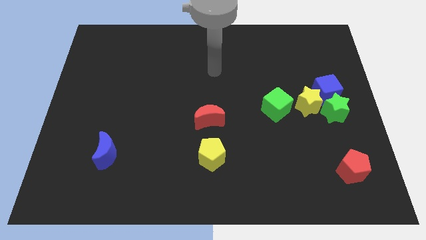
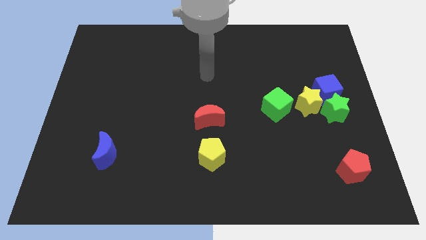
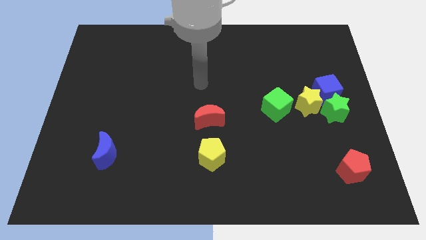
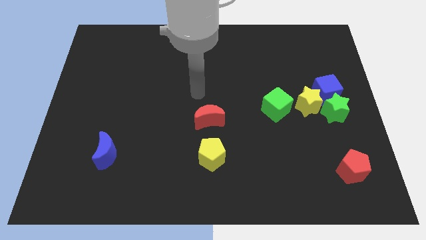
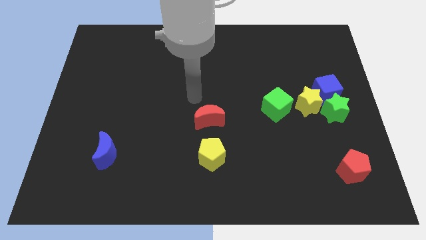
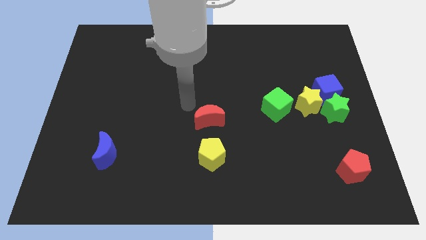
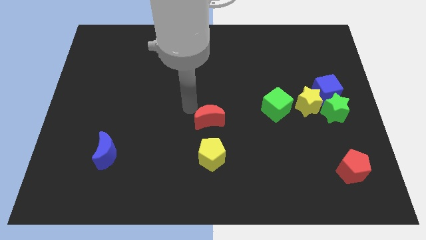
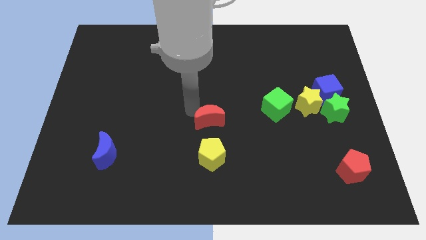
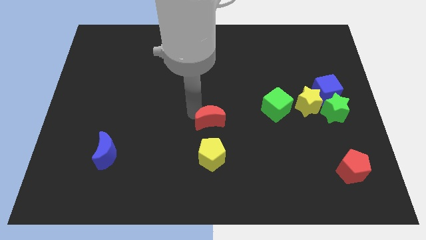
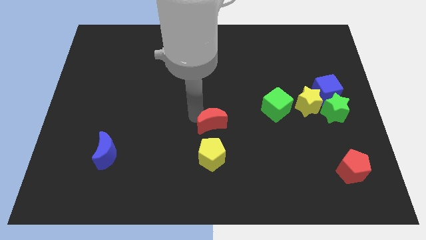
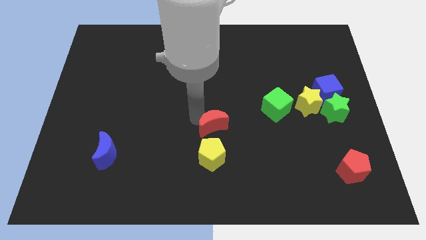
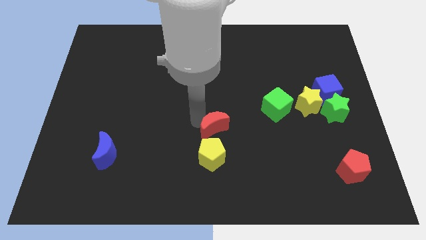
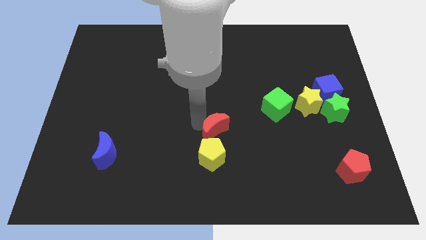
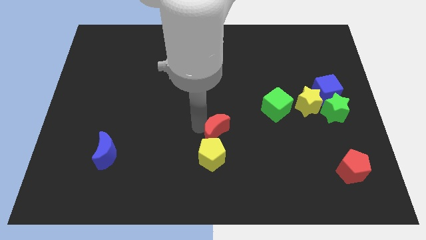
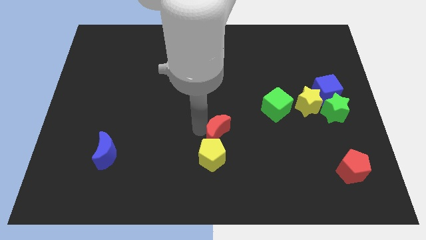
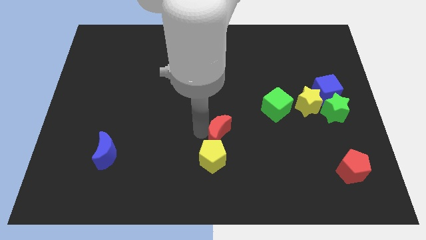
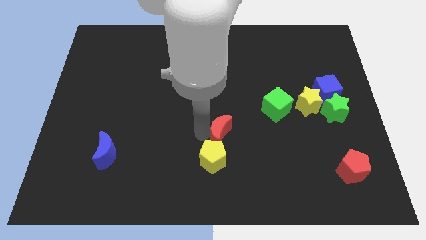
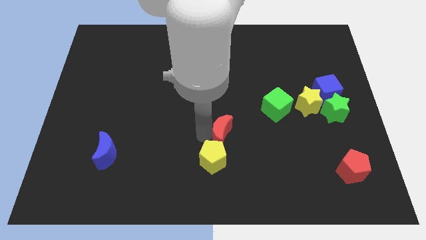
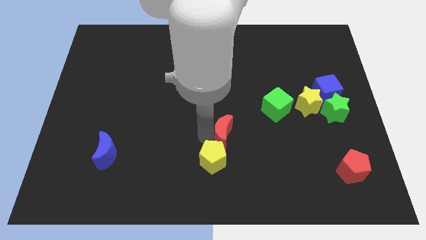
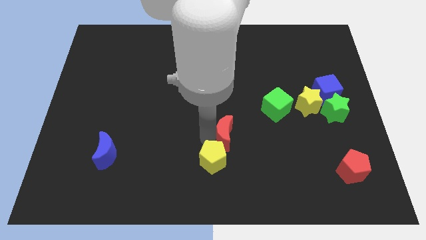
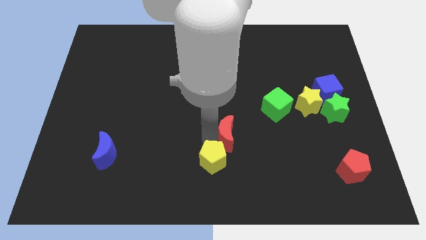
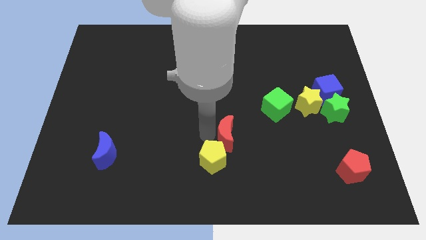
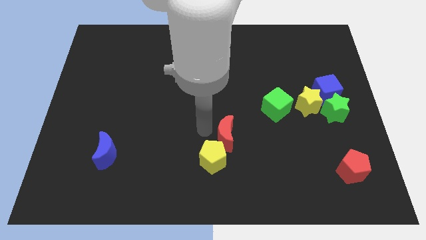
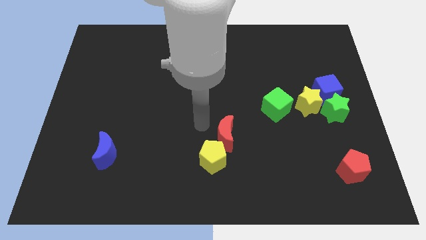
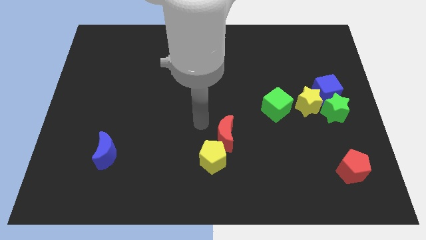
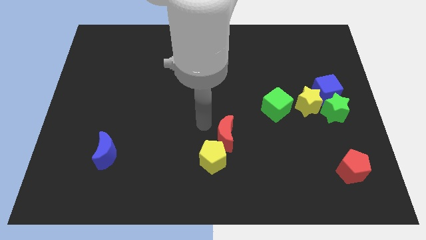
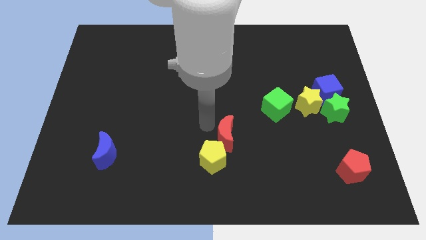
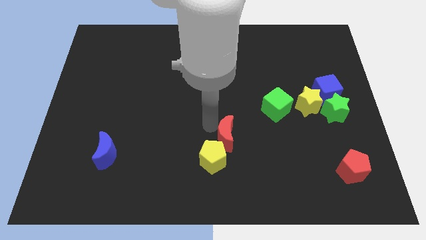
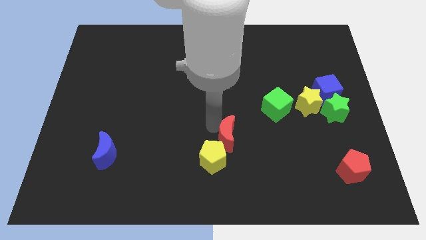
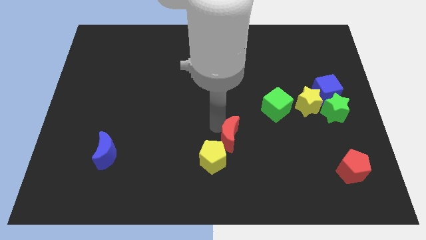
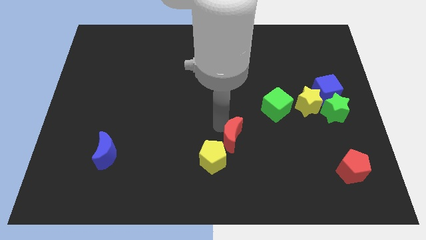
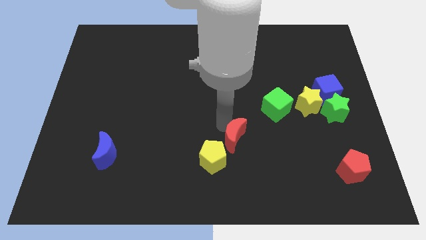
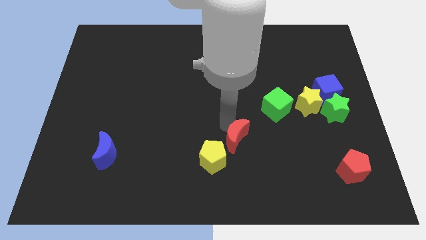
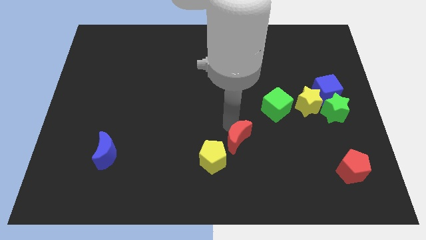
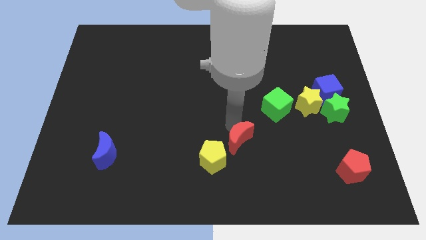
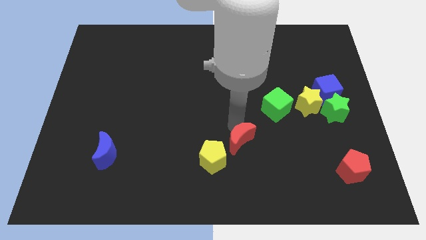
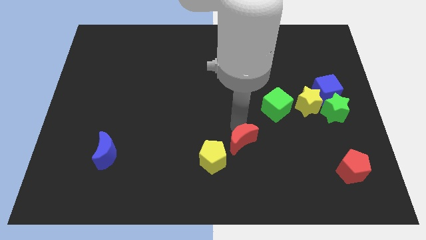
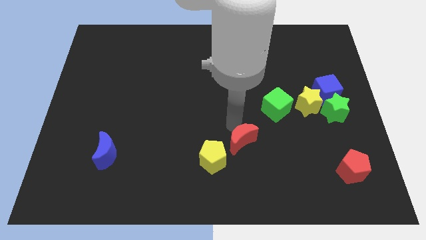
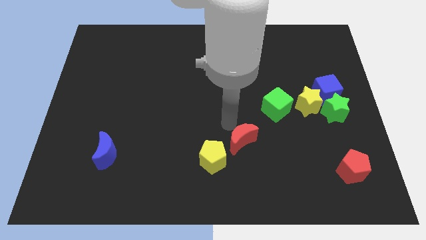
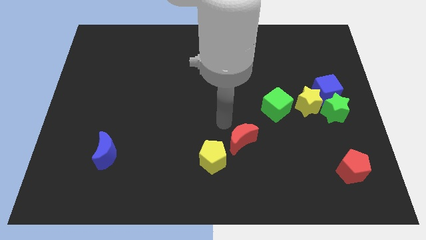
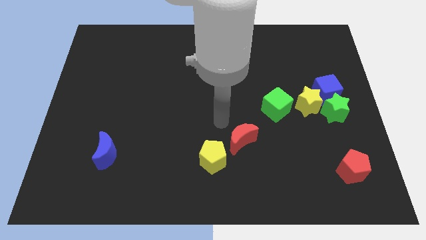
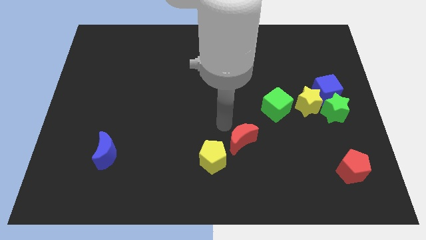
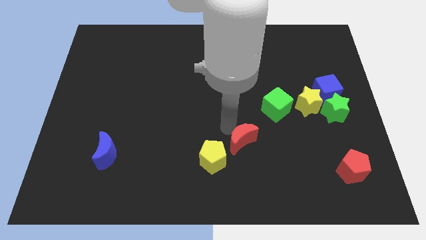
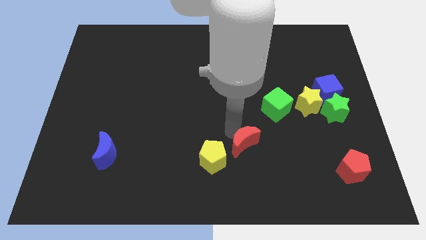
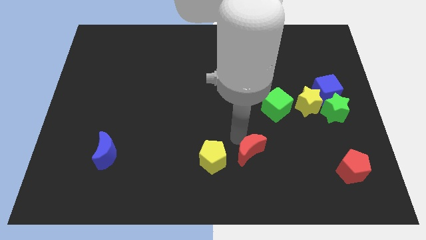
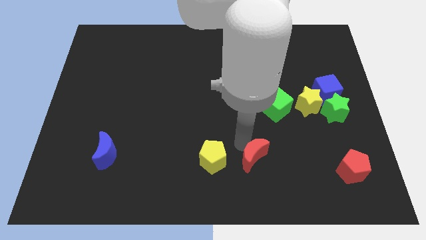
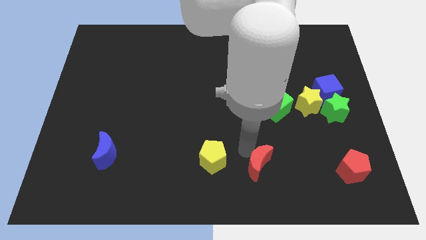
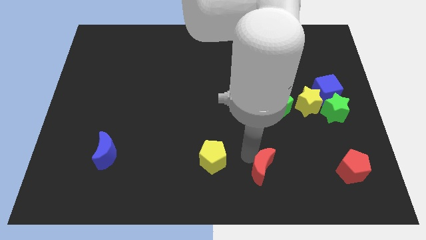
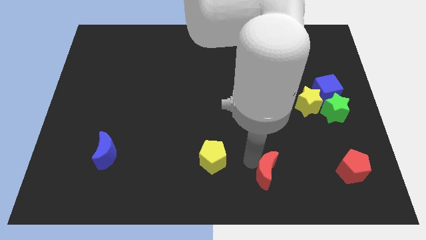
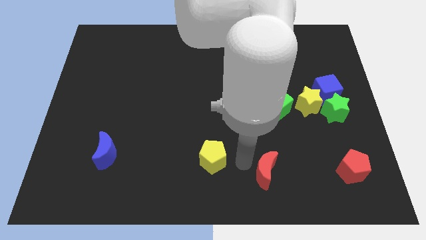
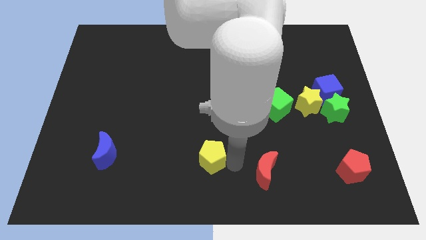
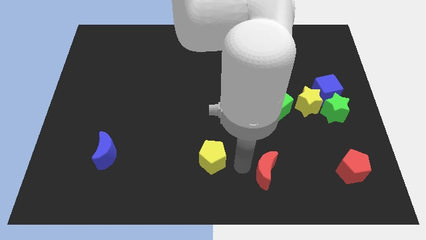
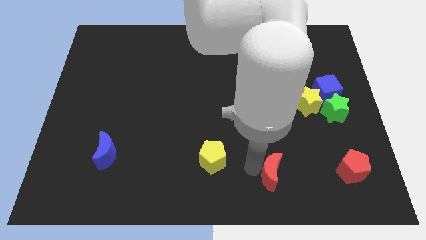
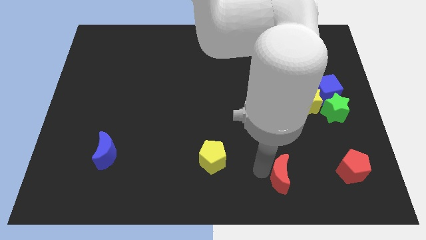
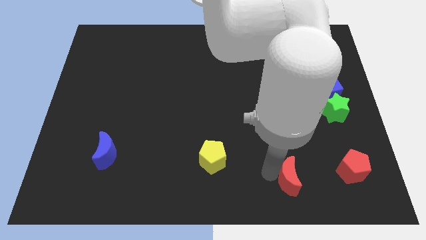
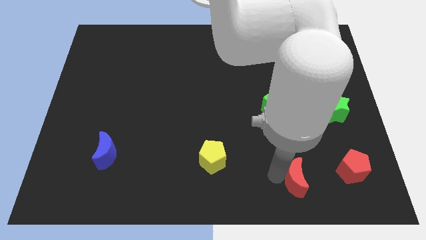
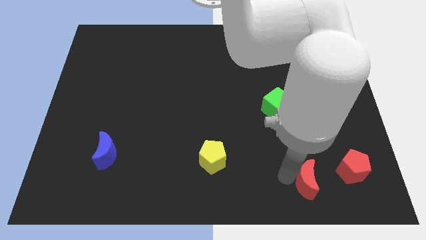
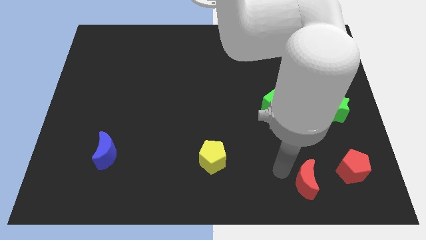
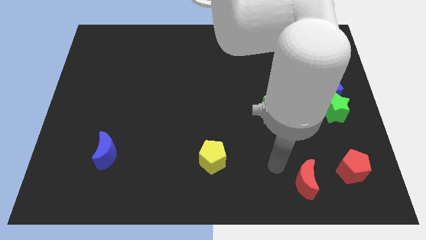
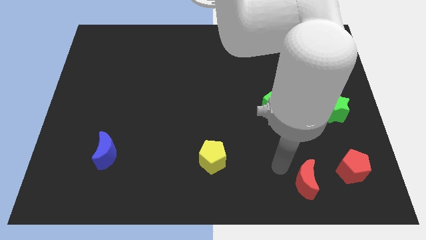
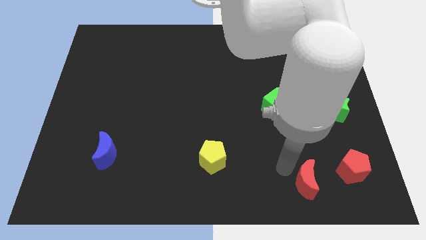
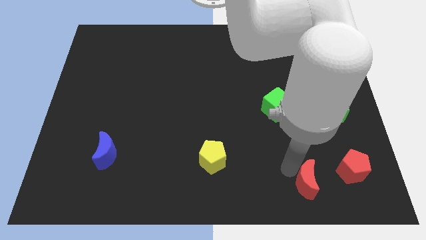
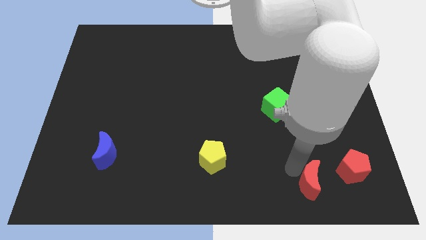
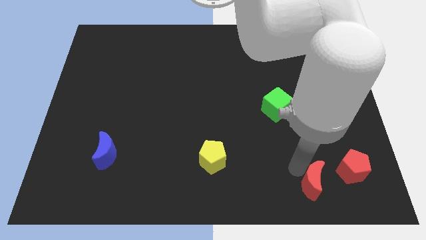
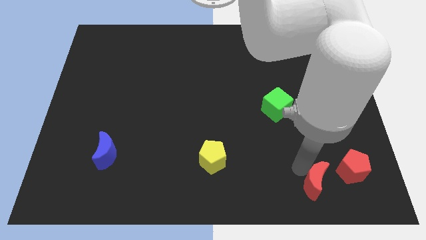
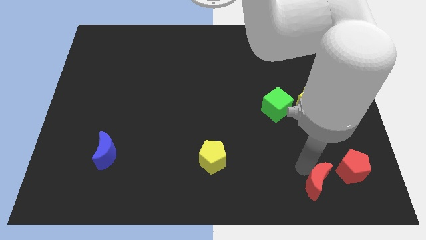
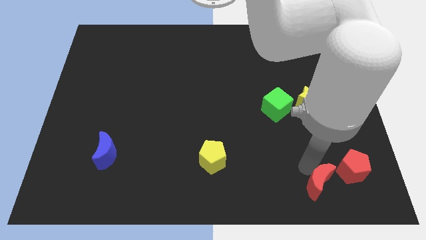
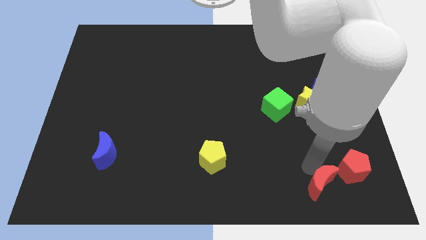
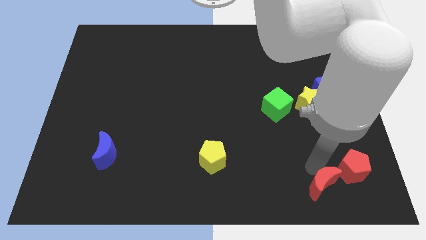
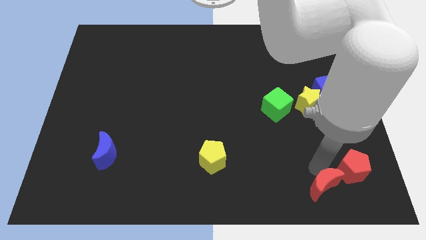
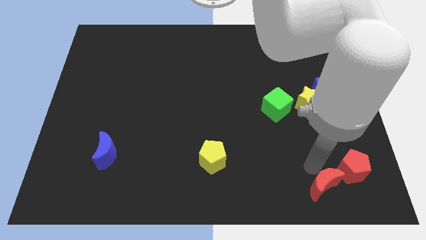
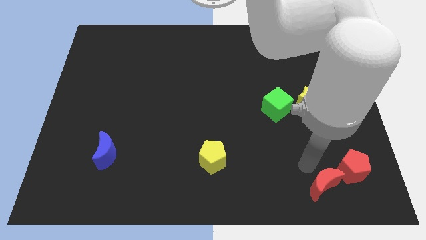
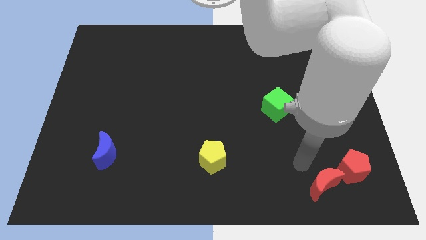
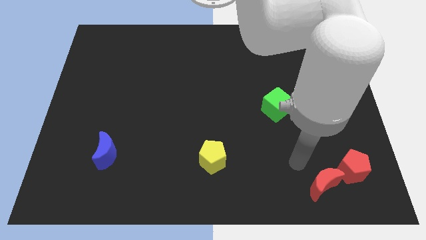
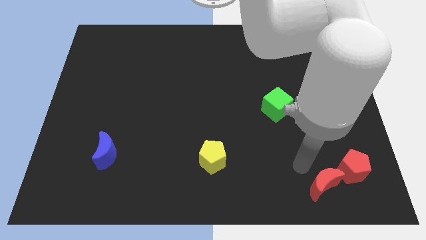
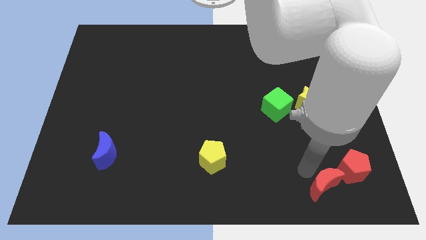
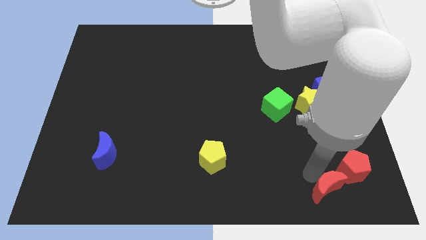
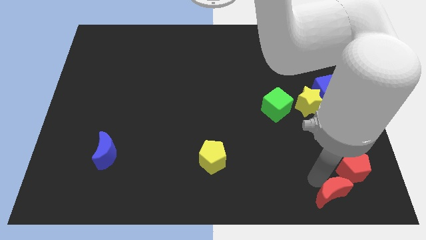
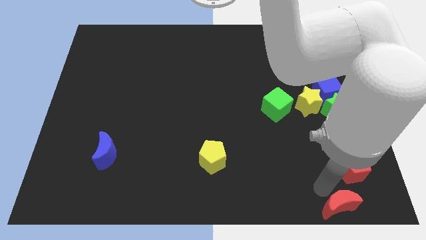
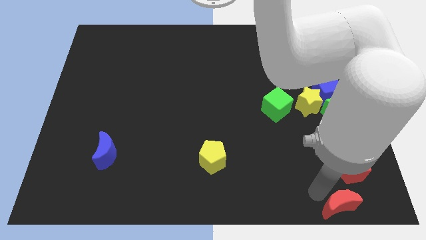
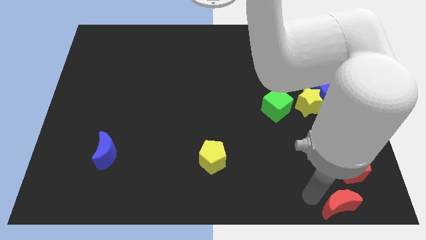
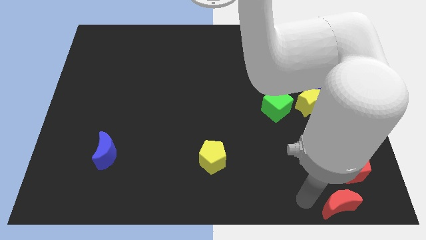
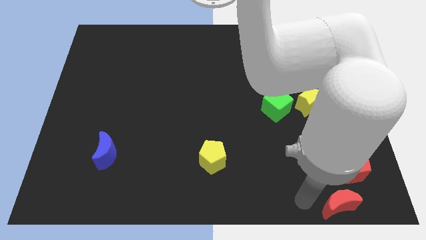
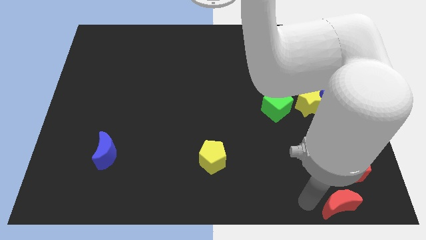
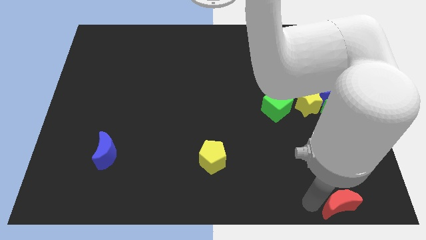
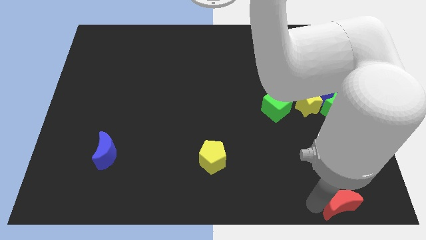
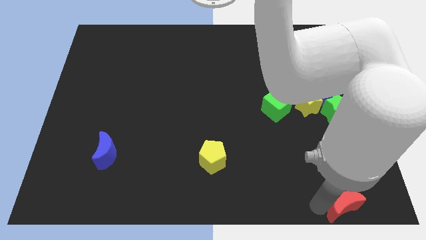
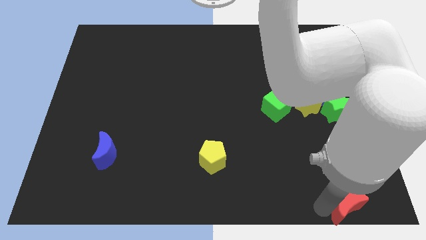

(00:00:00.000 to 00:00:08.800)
push the red moon to the bottom right corner
